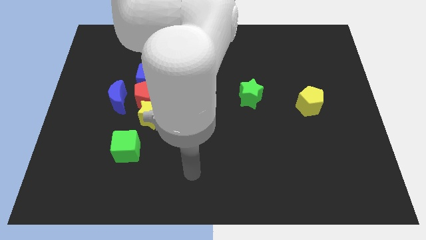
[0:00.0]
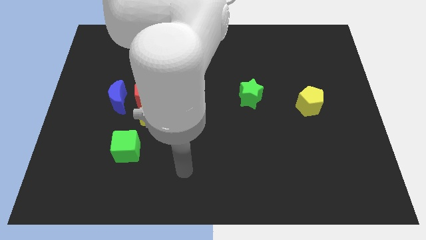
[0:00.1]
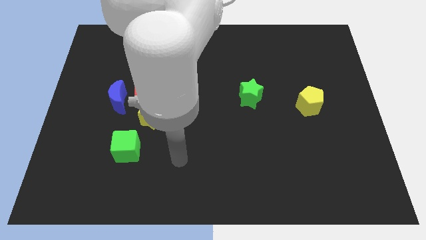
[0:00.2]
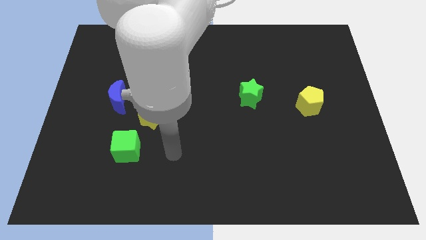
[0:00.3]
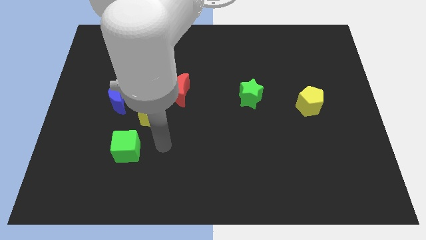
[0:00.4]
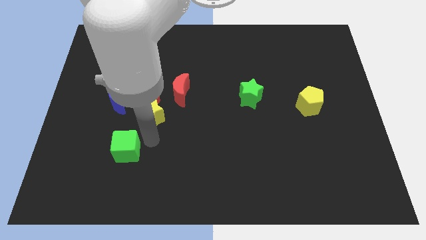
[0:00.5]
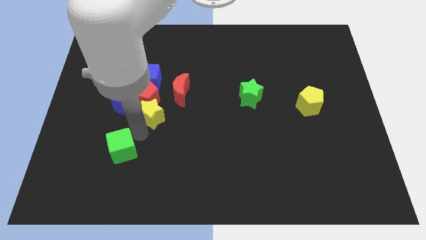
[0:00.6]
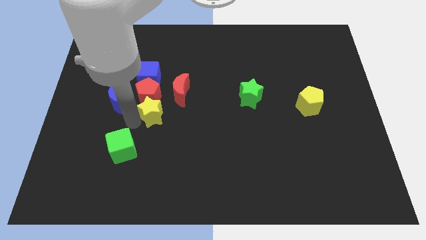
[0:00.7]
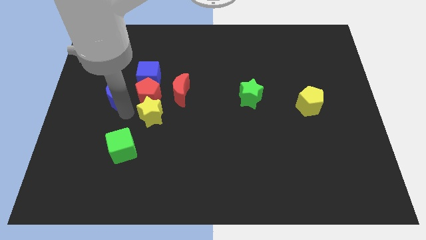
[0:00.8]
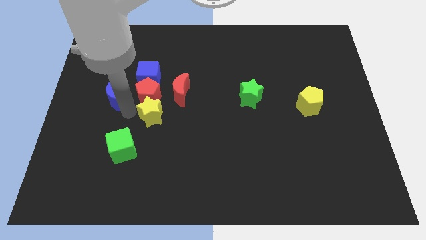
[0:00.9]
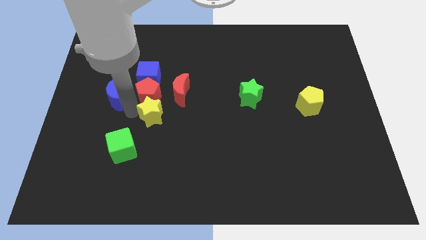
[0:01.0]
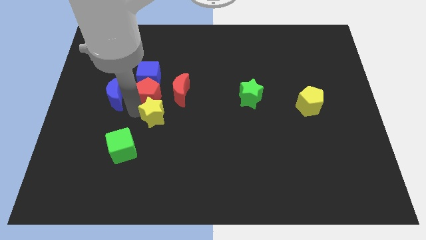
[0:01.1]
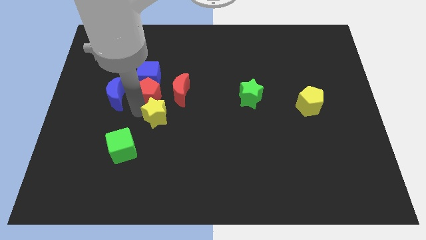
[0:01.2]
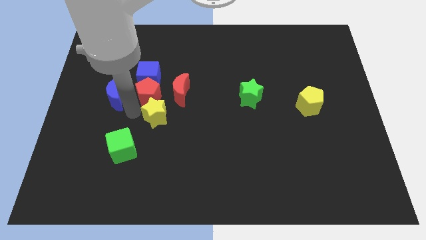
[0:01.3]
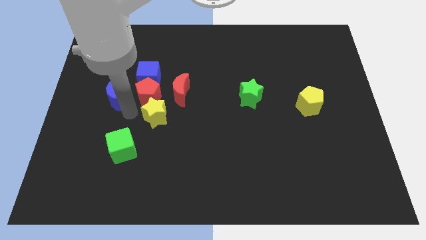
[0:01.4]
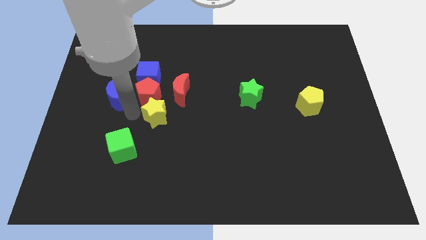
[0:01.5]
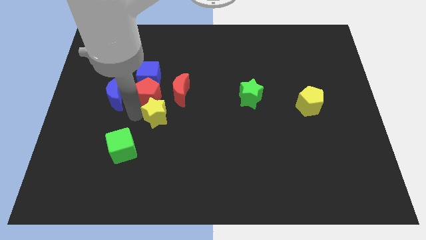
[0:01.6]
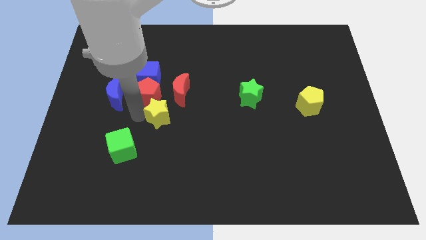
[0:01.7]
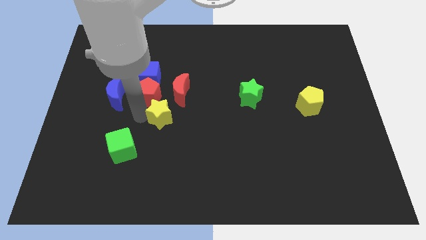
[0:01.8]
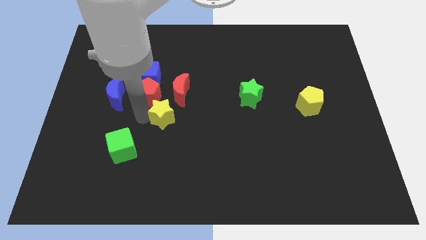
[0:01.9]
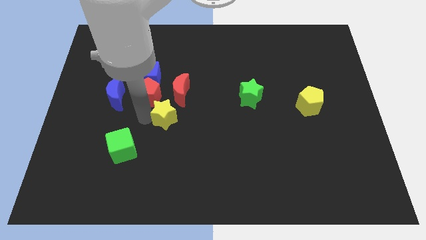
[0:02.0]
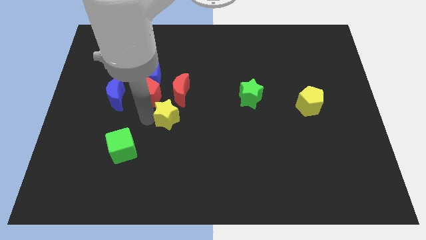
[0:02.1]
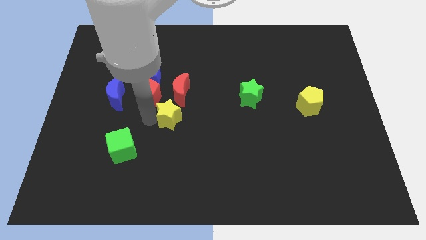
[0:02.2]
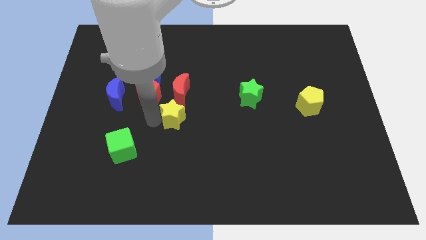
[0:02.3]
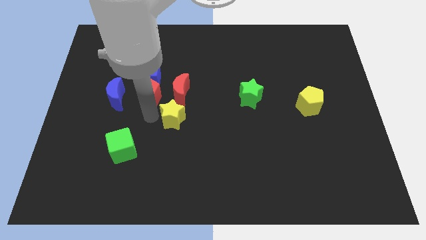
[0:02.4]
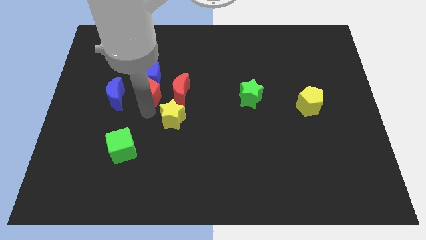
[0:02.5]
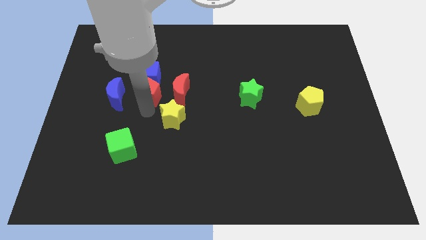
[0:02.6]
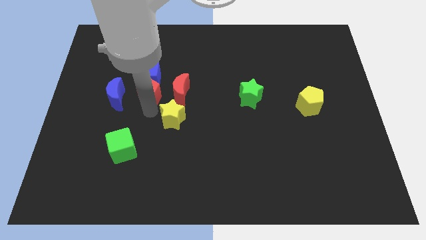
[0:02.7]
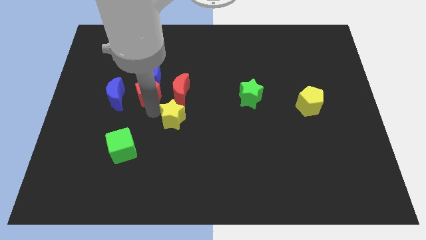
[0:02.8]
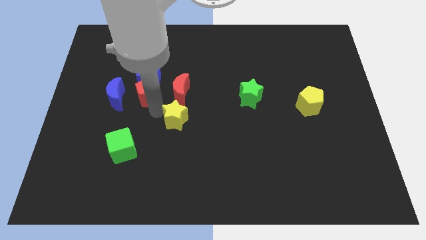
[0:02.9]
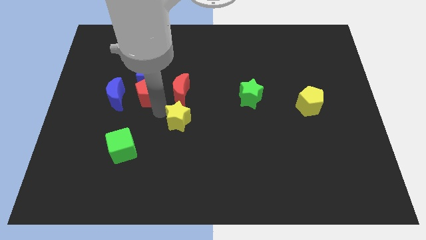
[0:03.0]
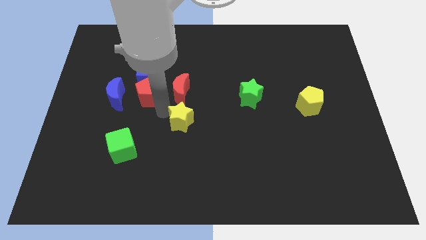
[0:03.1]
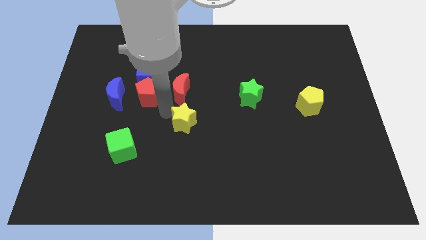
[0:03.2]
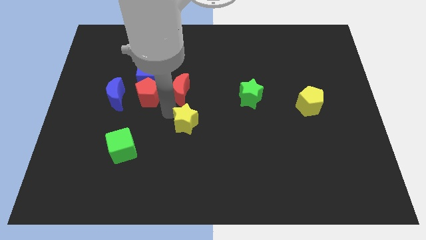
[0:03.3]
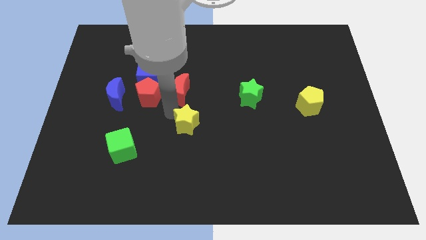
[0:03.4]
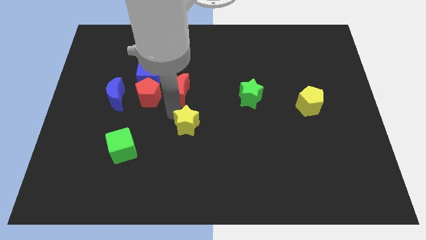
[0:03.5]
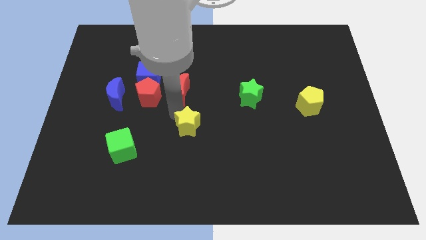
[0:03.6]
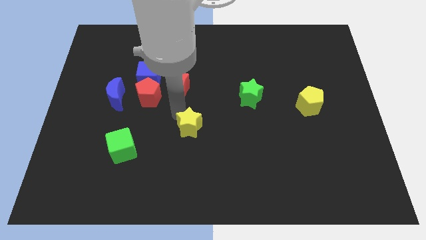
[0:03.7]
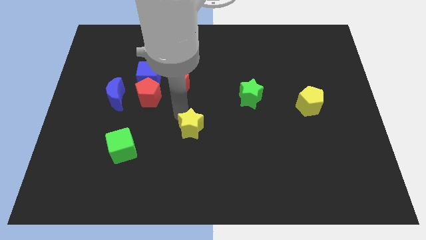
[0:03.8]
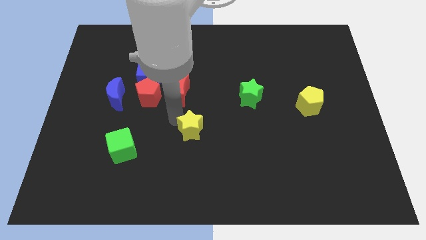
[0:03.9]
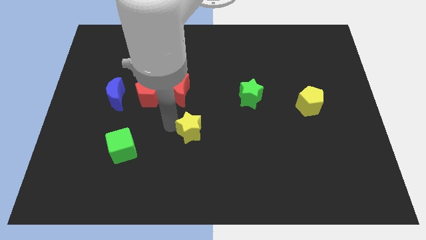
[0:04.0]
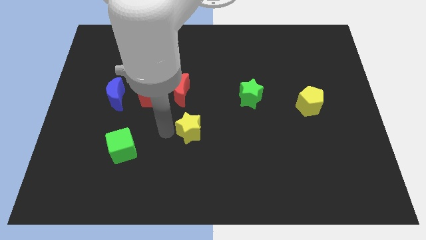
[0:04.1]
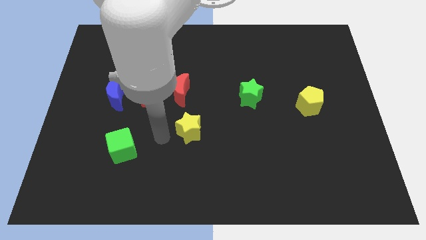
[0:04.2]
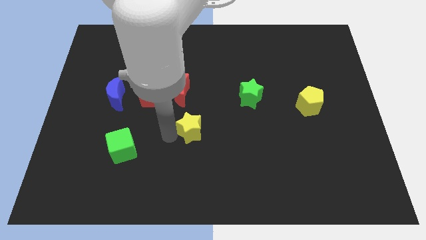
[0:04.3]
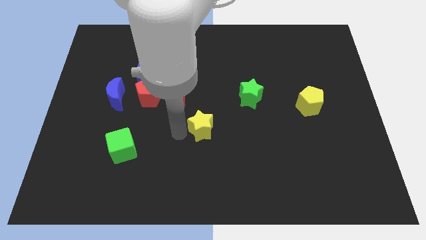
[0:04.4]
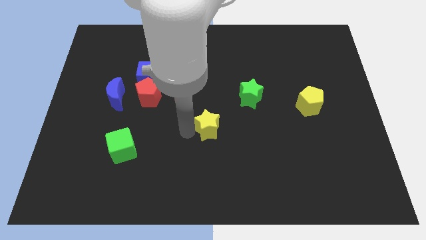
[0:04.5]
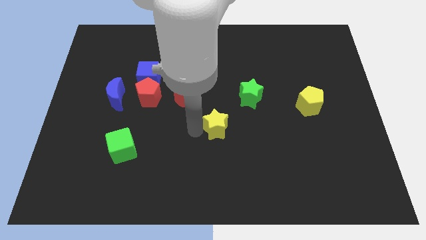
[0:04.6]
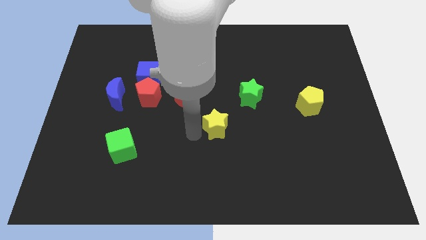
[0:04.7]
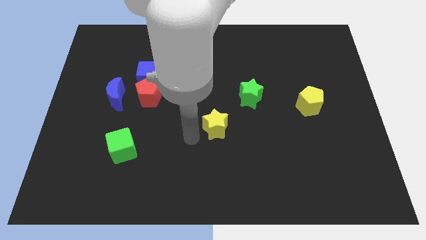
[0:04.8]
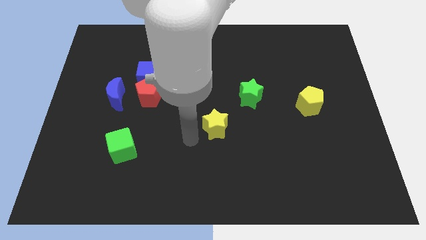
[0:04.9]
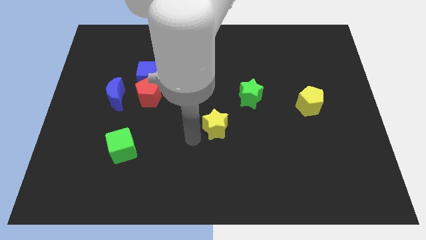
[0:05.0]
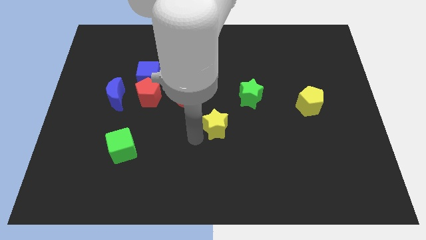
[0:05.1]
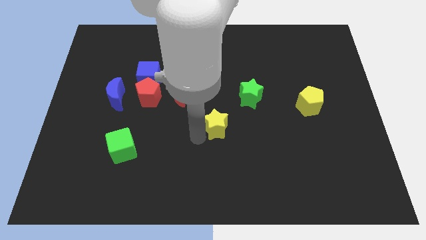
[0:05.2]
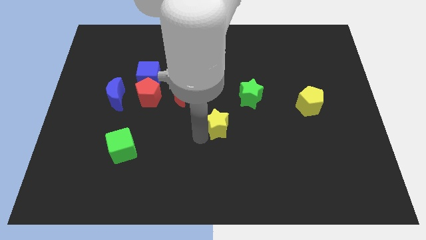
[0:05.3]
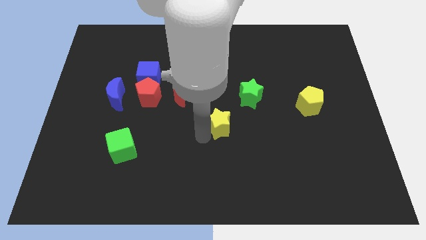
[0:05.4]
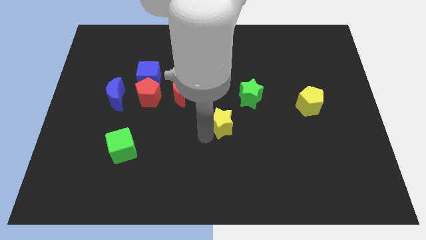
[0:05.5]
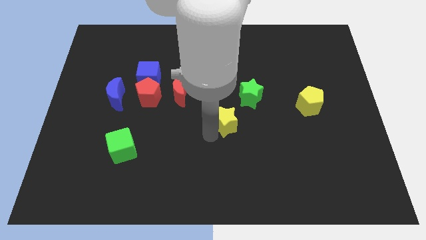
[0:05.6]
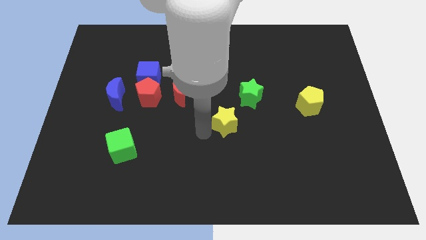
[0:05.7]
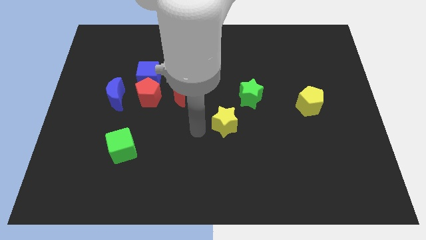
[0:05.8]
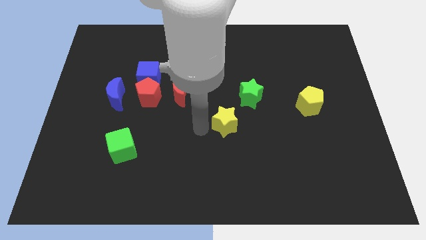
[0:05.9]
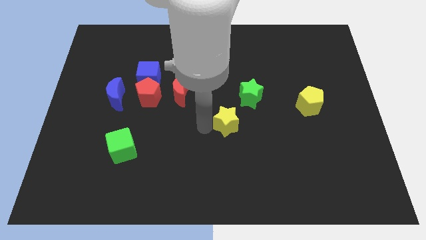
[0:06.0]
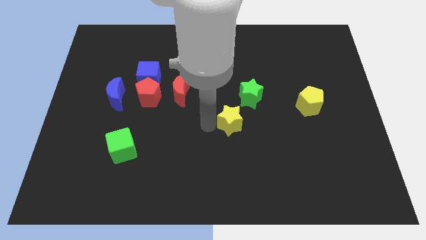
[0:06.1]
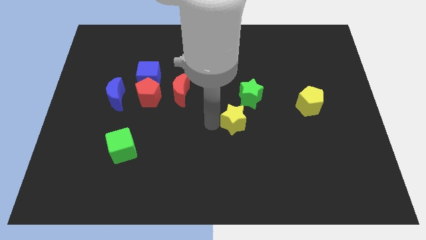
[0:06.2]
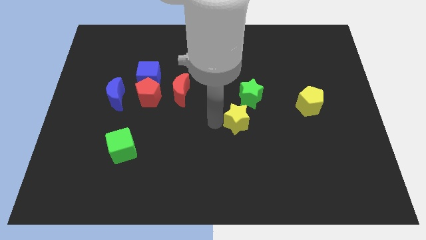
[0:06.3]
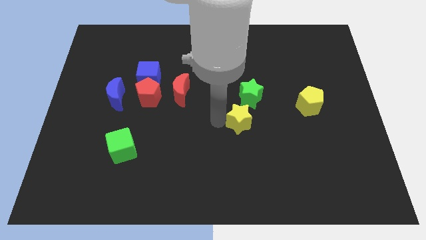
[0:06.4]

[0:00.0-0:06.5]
move the yellow star right

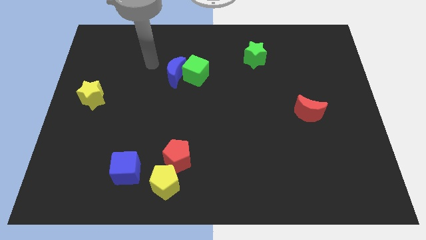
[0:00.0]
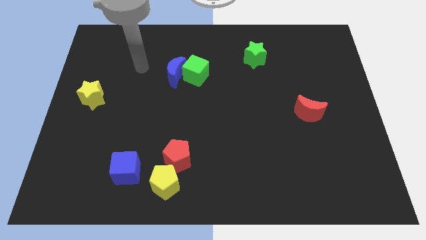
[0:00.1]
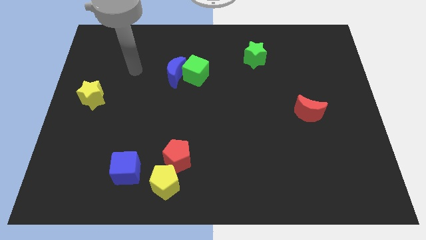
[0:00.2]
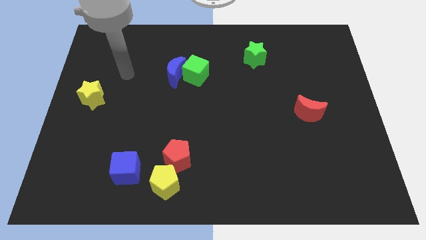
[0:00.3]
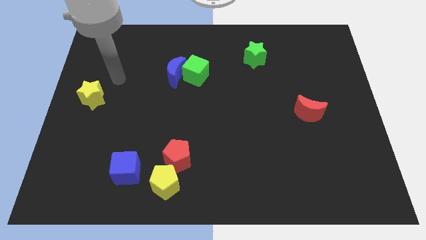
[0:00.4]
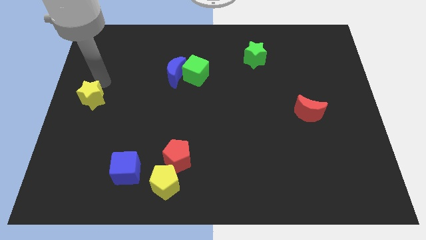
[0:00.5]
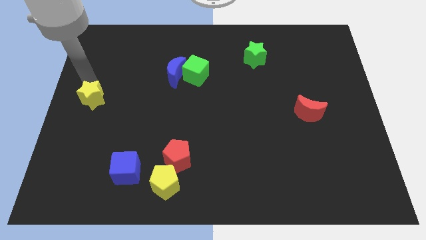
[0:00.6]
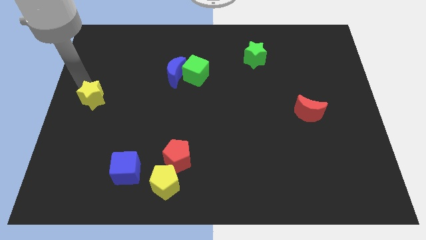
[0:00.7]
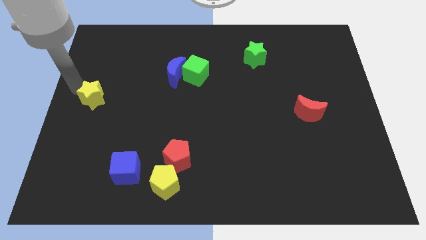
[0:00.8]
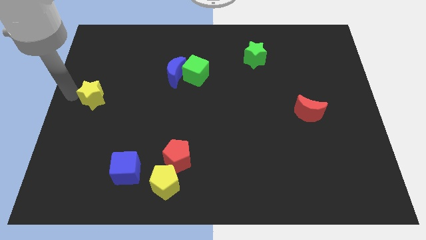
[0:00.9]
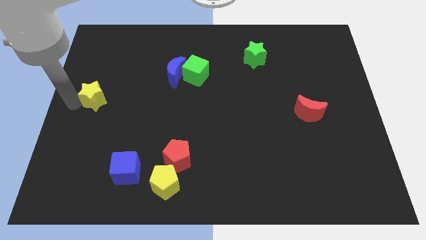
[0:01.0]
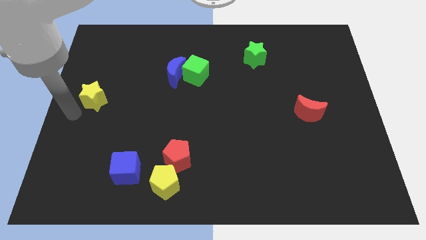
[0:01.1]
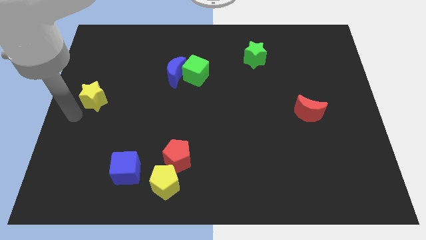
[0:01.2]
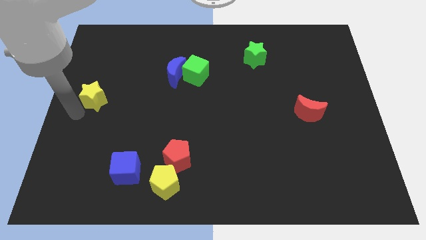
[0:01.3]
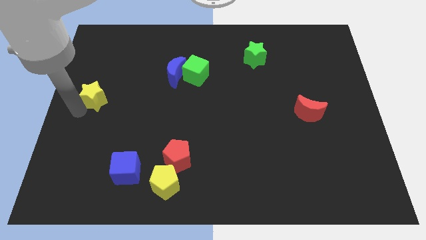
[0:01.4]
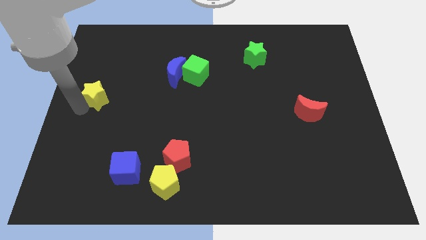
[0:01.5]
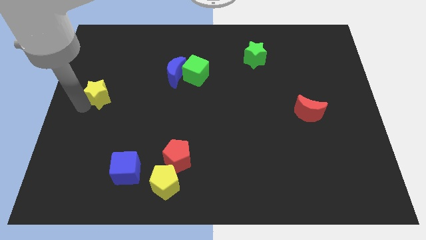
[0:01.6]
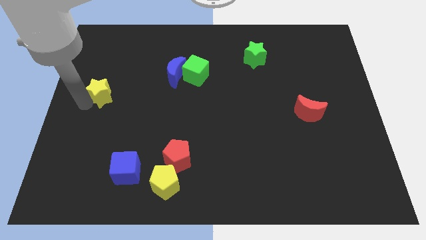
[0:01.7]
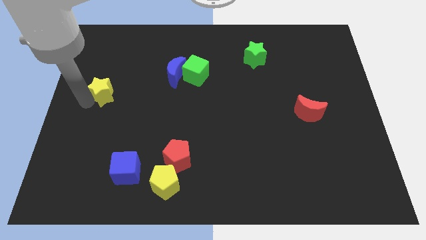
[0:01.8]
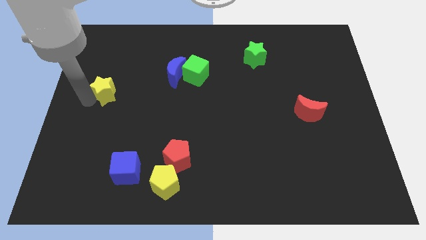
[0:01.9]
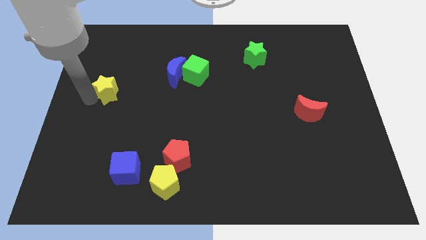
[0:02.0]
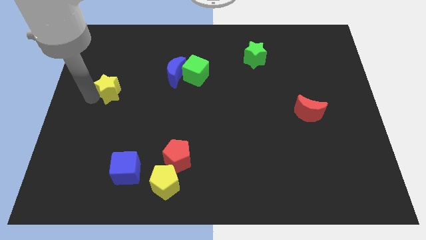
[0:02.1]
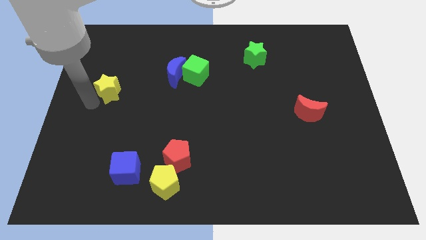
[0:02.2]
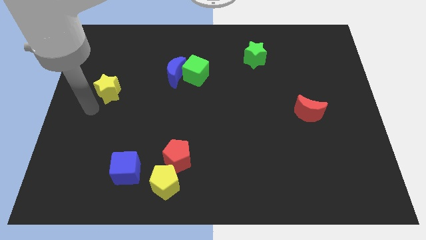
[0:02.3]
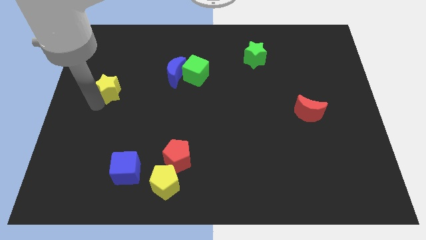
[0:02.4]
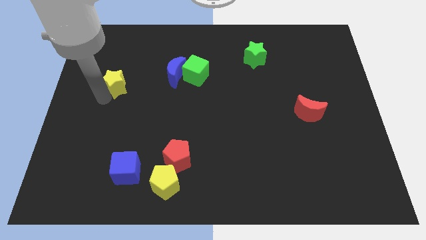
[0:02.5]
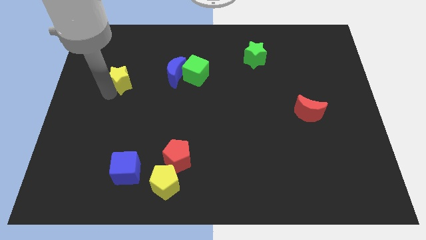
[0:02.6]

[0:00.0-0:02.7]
slide the yellow star up and to the right slightly
